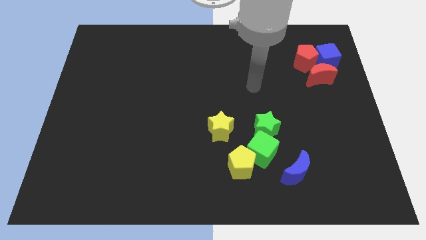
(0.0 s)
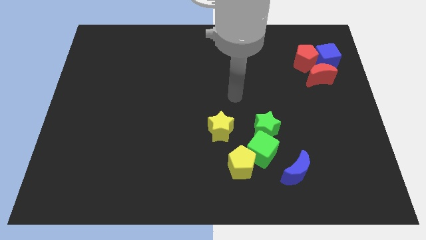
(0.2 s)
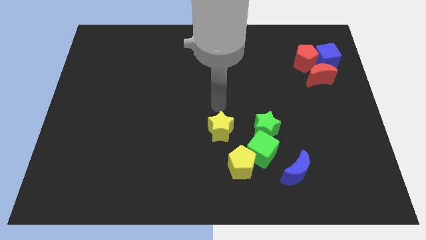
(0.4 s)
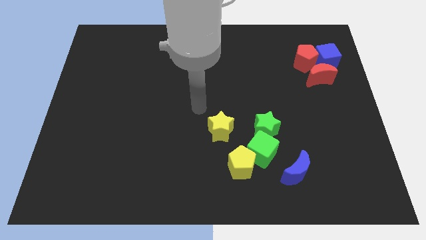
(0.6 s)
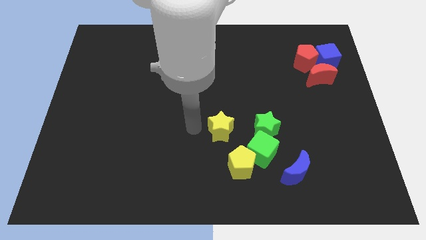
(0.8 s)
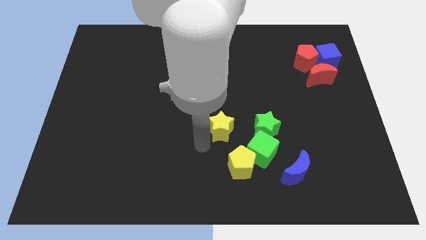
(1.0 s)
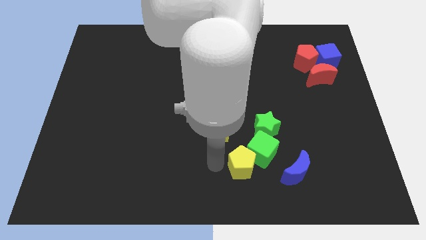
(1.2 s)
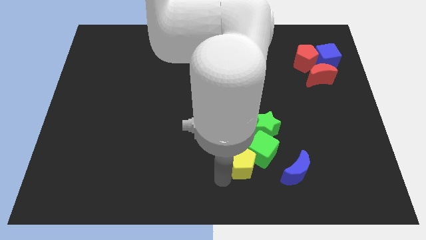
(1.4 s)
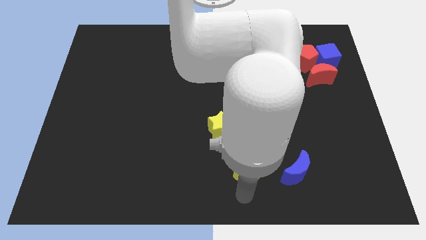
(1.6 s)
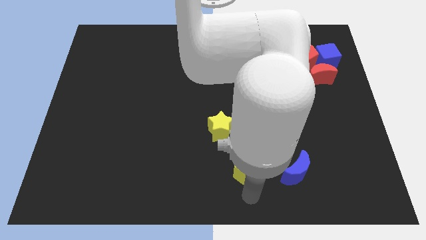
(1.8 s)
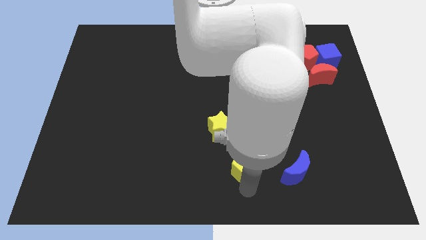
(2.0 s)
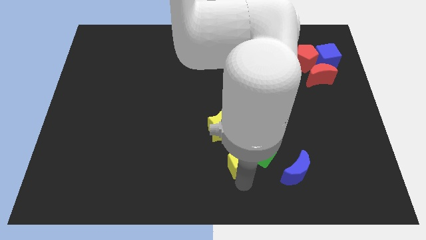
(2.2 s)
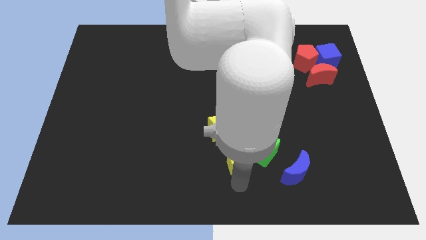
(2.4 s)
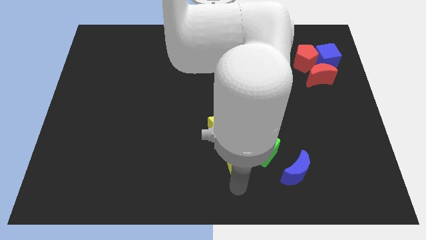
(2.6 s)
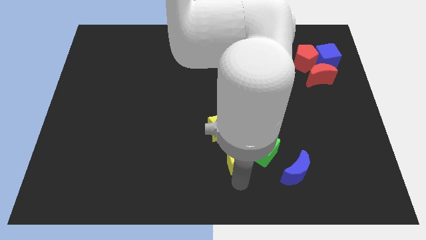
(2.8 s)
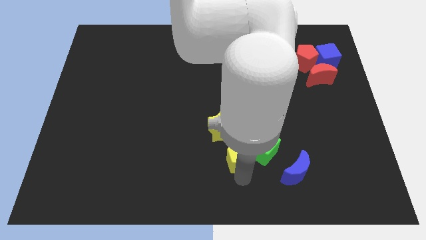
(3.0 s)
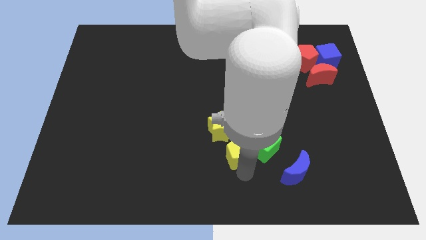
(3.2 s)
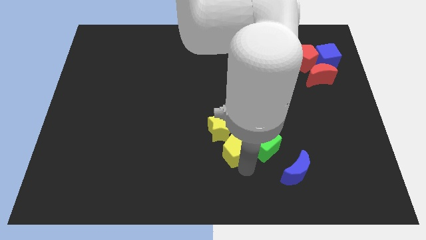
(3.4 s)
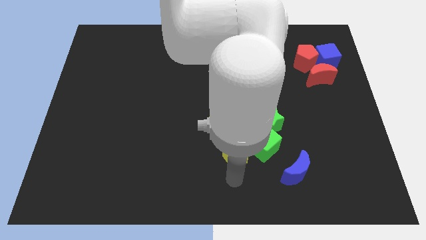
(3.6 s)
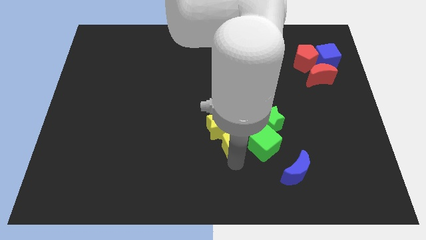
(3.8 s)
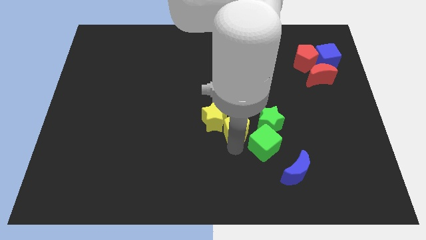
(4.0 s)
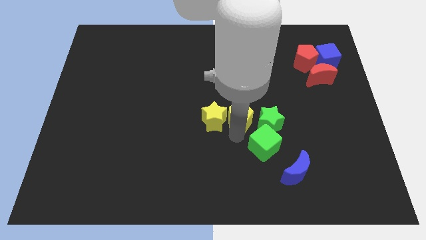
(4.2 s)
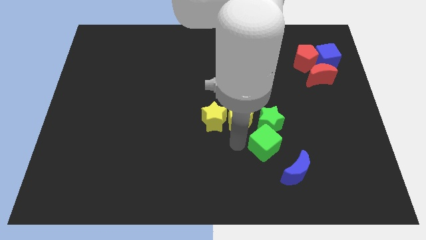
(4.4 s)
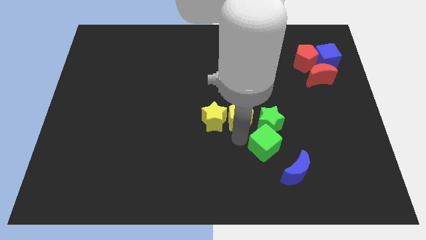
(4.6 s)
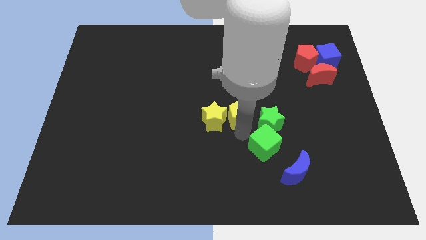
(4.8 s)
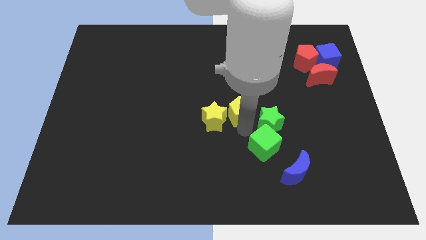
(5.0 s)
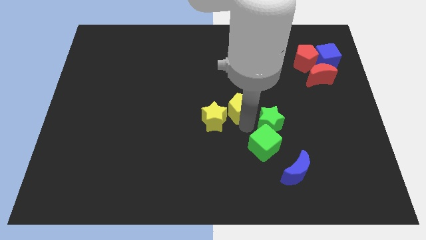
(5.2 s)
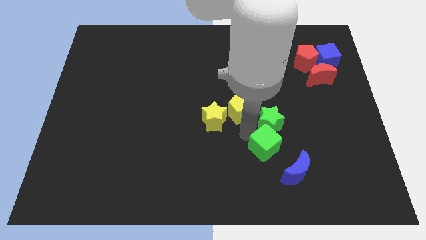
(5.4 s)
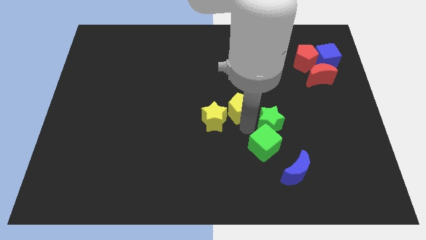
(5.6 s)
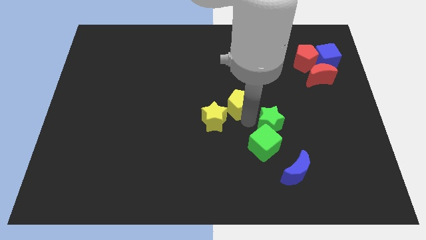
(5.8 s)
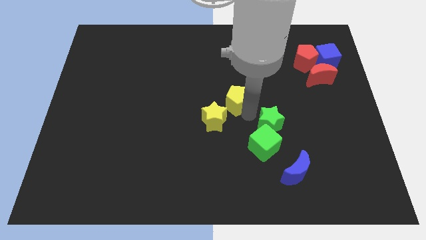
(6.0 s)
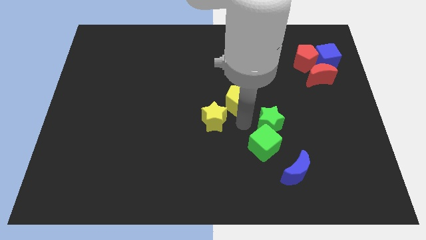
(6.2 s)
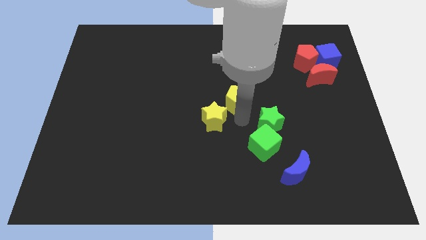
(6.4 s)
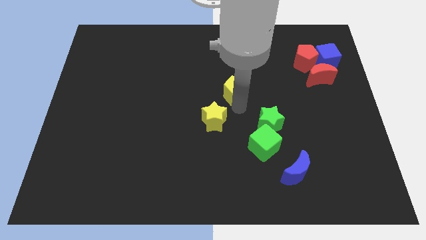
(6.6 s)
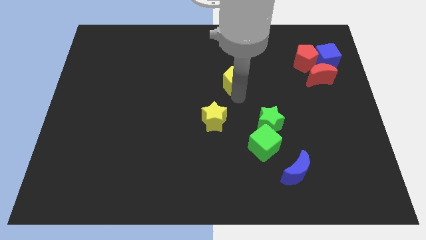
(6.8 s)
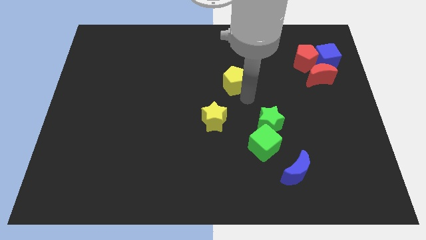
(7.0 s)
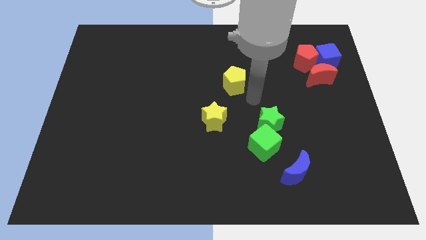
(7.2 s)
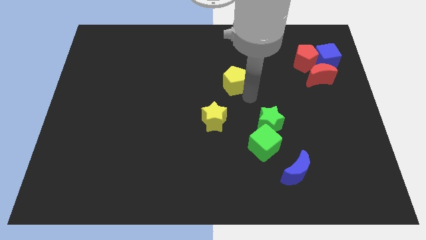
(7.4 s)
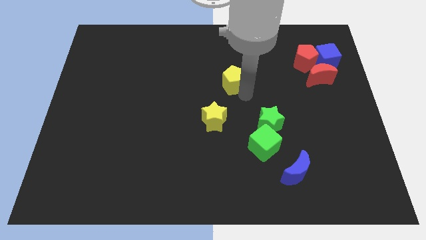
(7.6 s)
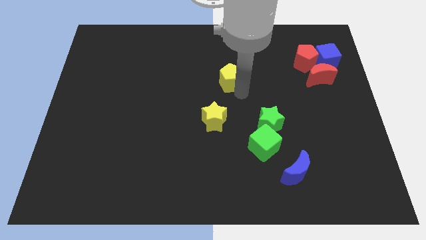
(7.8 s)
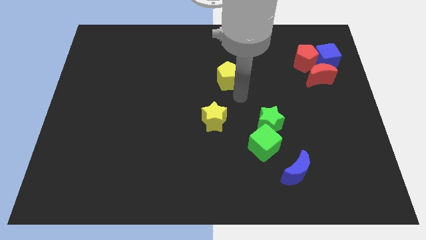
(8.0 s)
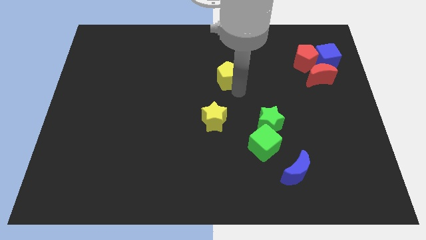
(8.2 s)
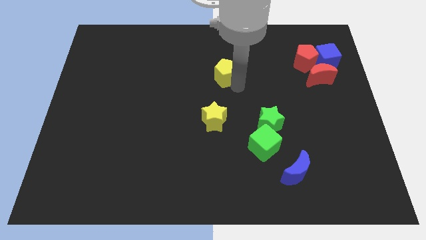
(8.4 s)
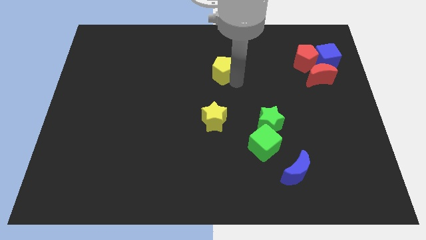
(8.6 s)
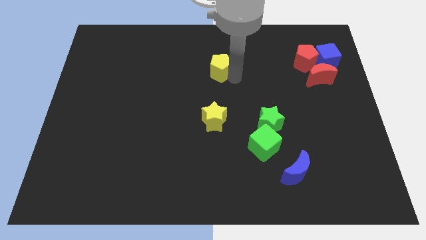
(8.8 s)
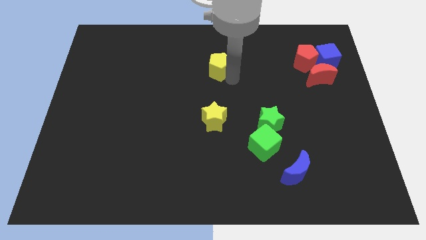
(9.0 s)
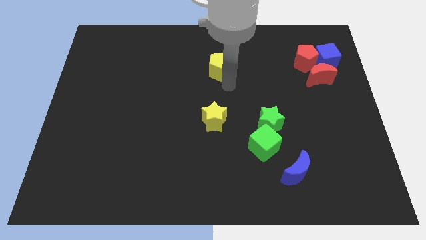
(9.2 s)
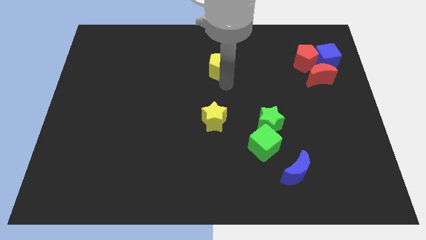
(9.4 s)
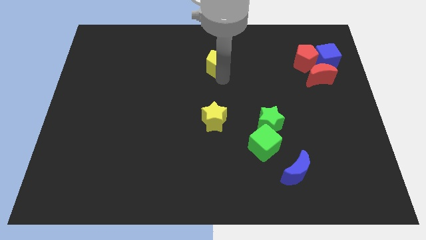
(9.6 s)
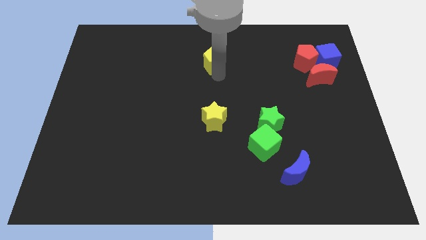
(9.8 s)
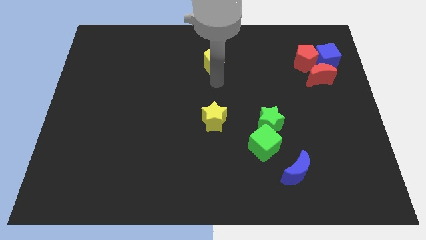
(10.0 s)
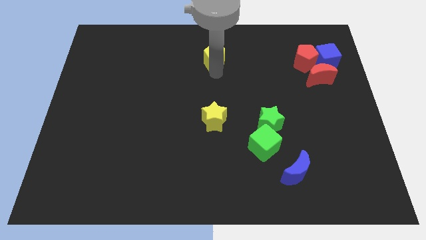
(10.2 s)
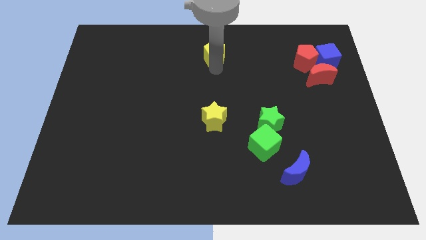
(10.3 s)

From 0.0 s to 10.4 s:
move the yellow pentagon to the towards your base

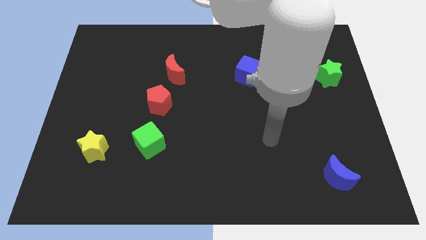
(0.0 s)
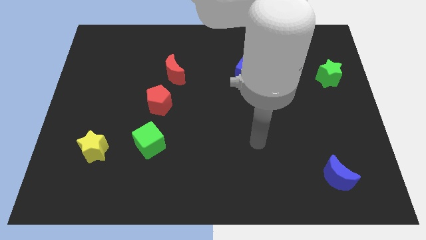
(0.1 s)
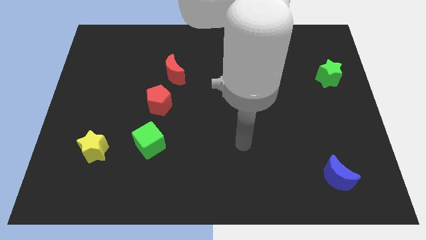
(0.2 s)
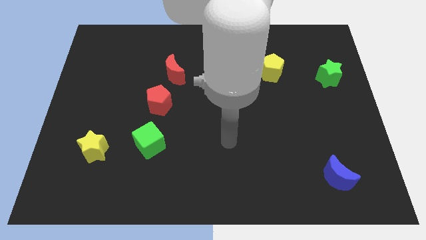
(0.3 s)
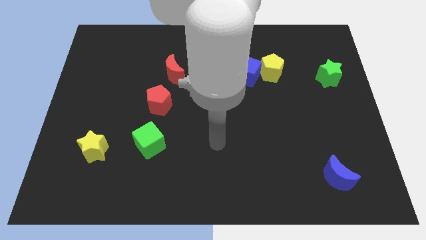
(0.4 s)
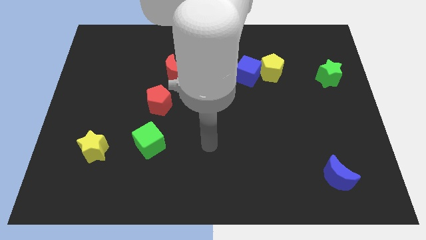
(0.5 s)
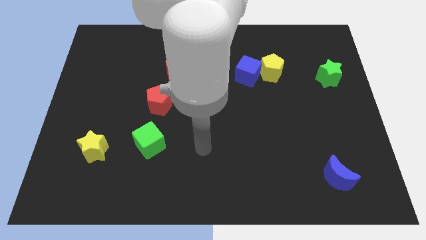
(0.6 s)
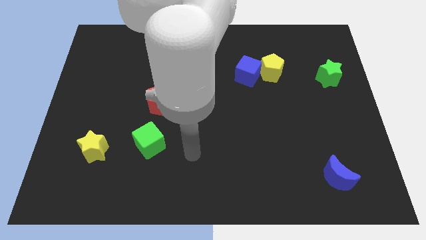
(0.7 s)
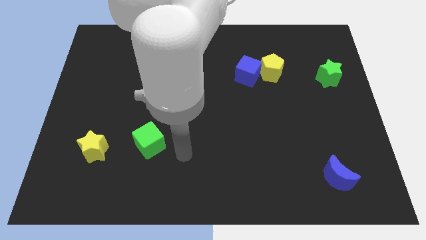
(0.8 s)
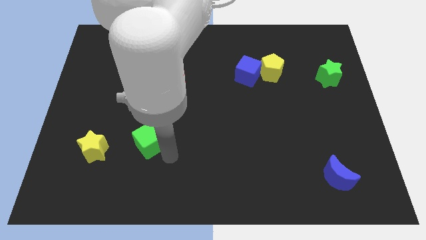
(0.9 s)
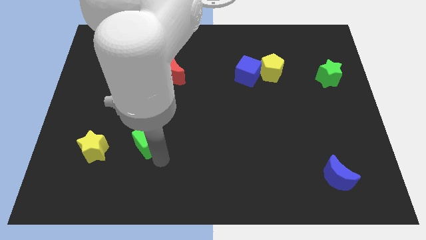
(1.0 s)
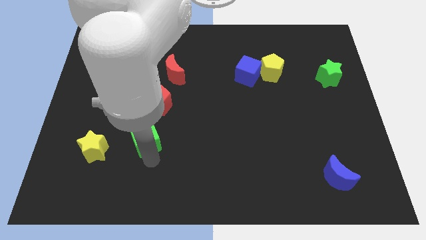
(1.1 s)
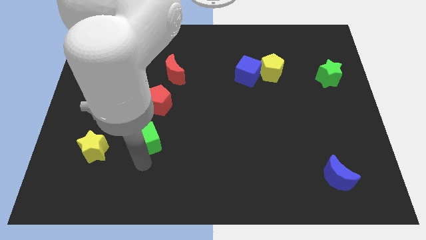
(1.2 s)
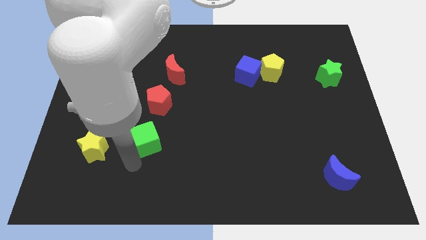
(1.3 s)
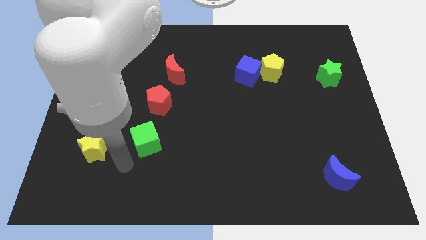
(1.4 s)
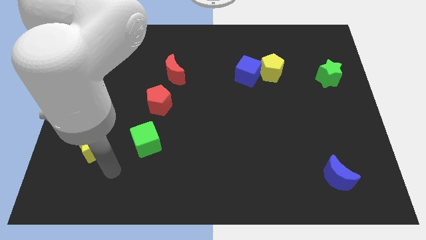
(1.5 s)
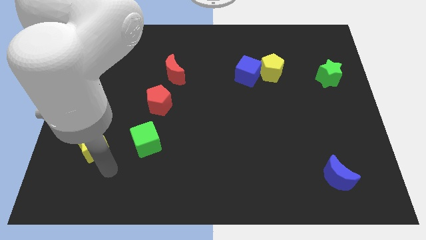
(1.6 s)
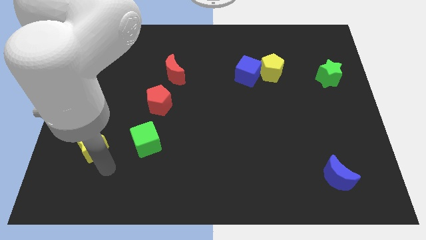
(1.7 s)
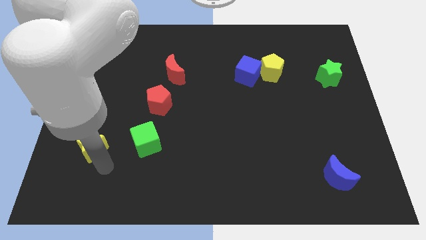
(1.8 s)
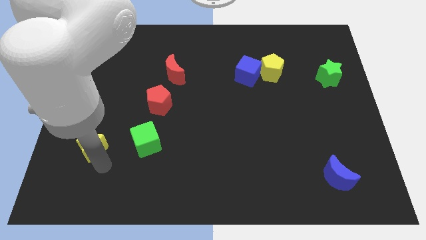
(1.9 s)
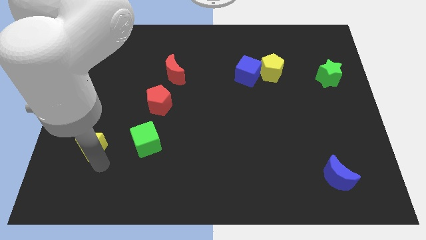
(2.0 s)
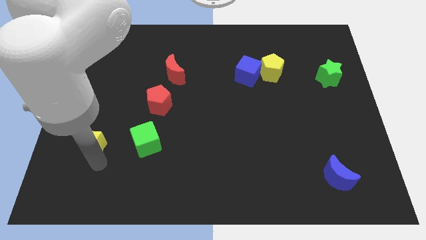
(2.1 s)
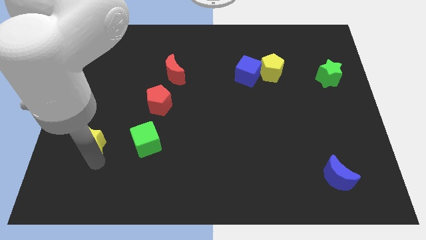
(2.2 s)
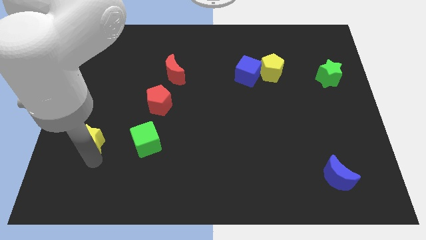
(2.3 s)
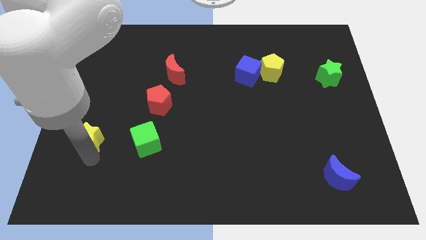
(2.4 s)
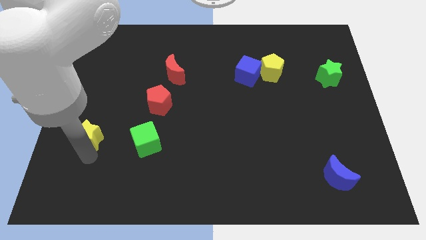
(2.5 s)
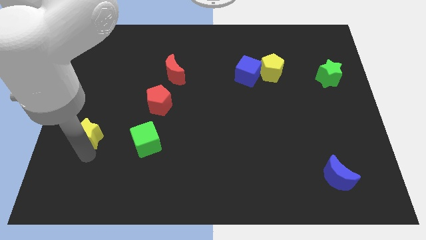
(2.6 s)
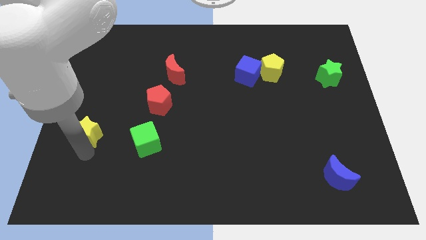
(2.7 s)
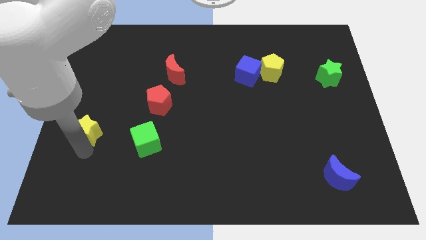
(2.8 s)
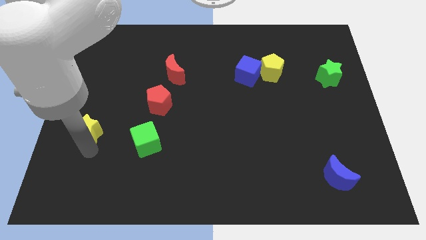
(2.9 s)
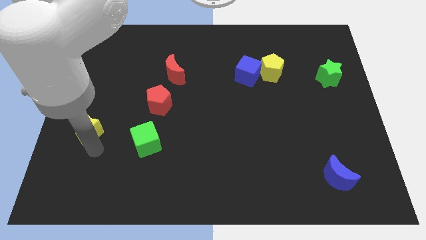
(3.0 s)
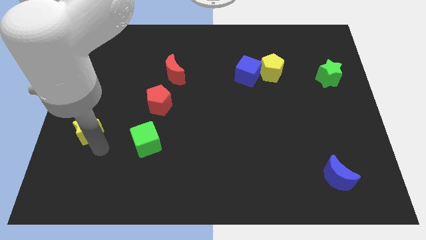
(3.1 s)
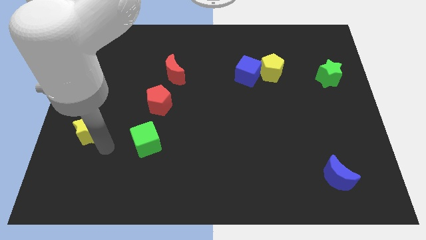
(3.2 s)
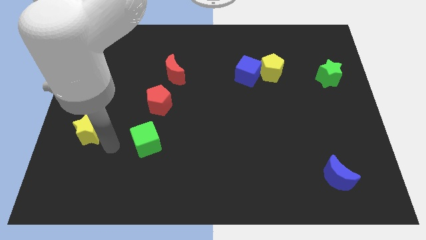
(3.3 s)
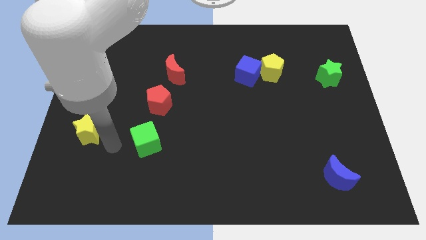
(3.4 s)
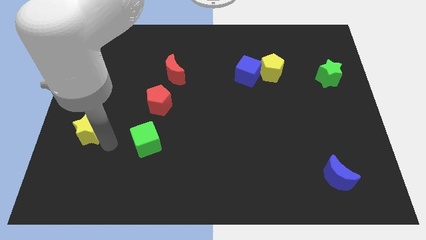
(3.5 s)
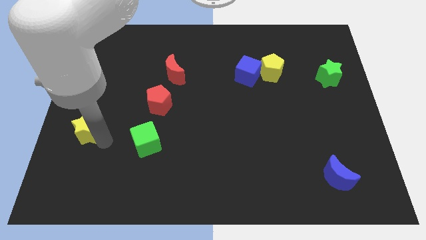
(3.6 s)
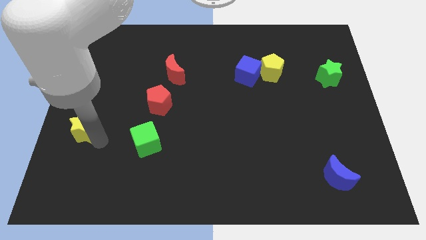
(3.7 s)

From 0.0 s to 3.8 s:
push the yellow star to the left side of the board
